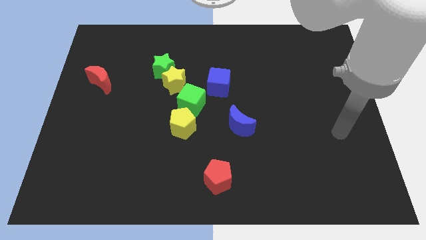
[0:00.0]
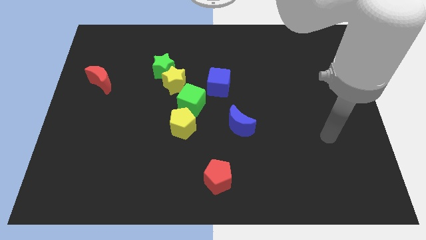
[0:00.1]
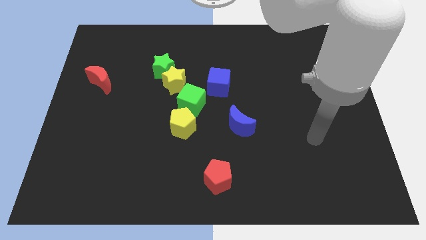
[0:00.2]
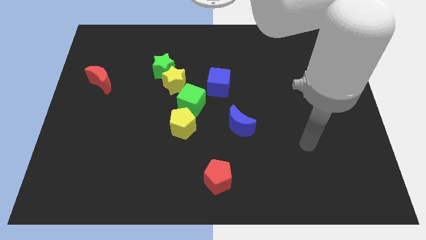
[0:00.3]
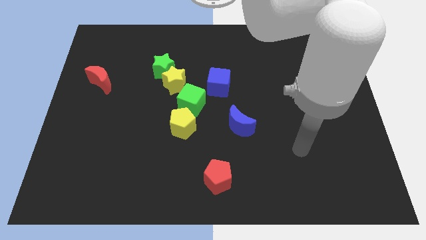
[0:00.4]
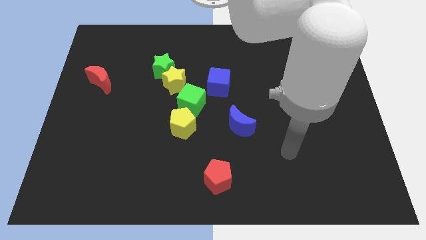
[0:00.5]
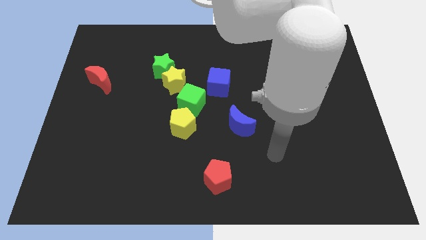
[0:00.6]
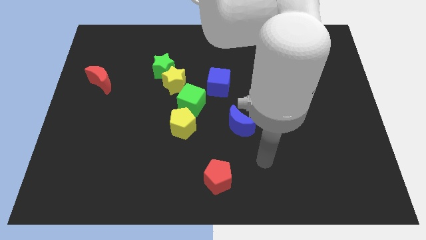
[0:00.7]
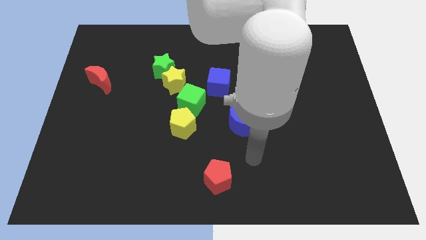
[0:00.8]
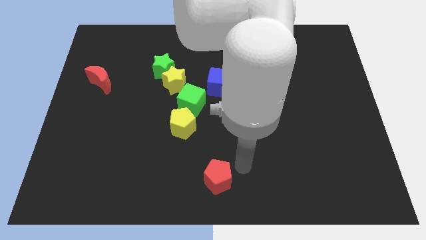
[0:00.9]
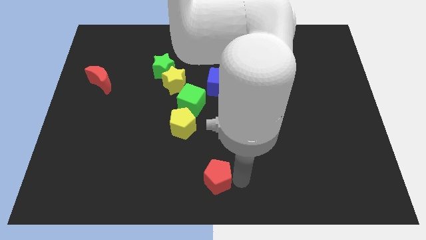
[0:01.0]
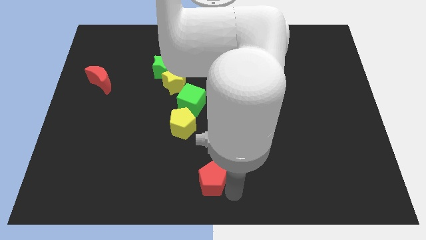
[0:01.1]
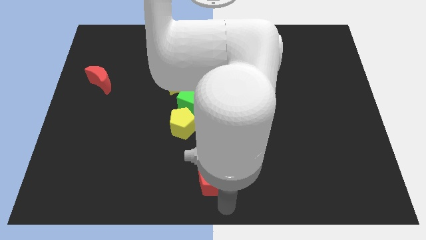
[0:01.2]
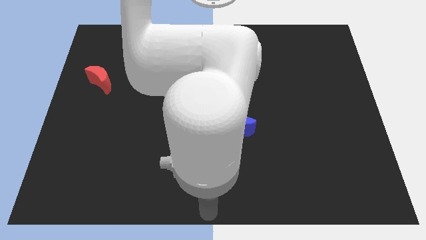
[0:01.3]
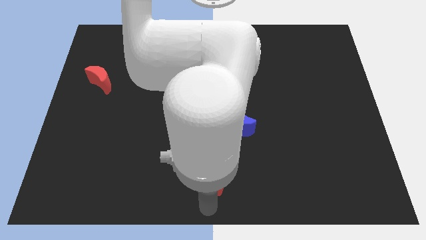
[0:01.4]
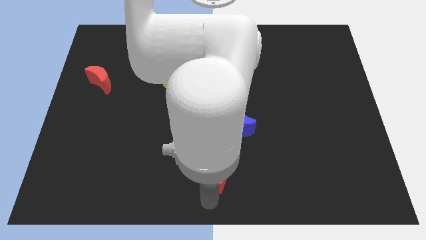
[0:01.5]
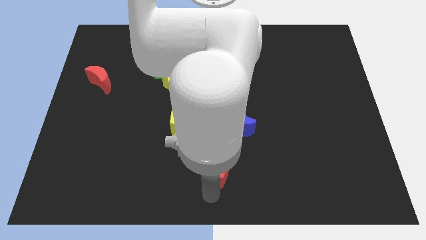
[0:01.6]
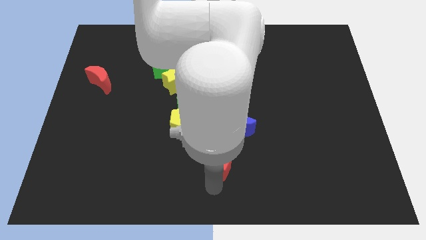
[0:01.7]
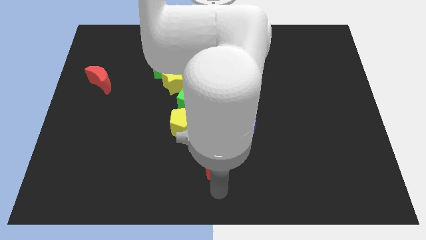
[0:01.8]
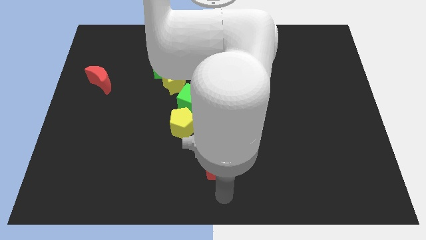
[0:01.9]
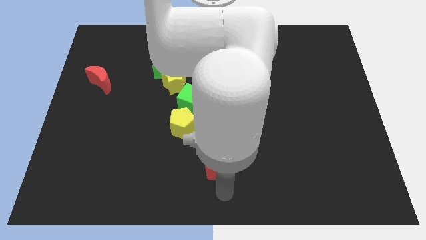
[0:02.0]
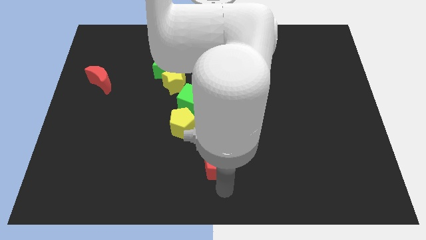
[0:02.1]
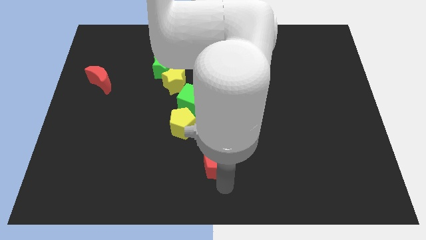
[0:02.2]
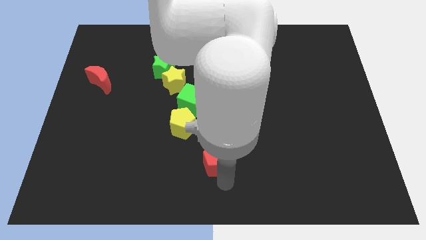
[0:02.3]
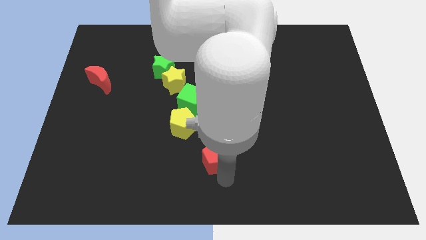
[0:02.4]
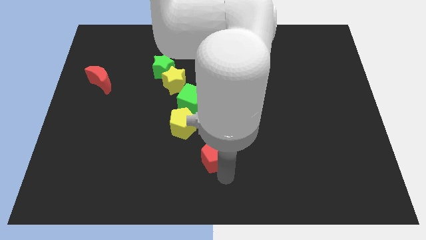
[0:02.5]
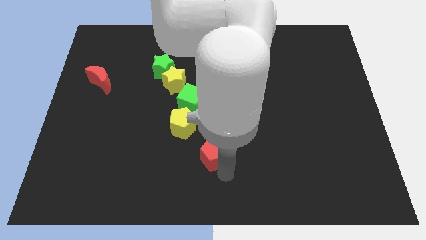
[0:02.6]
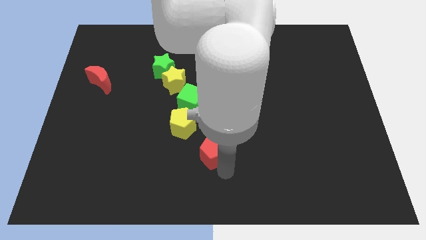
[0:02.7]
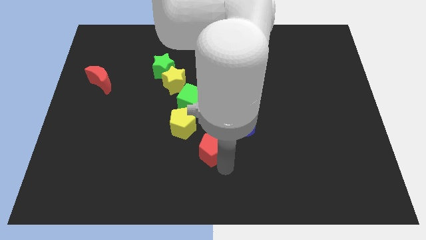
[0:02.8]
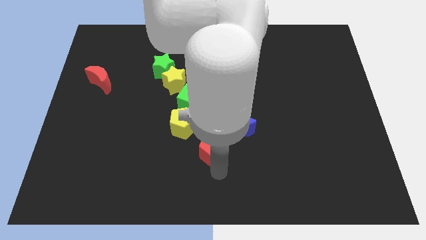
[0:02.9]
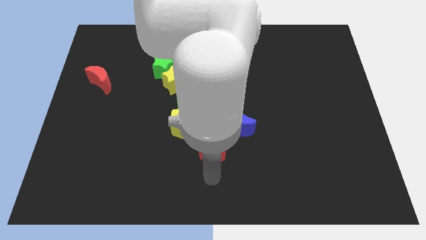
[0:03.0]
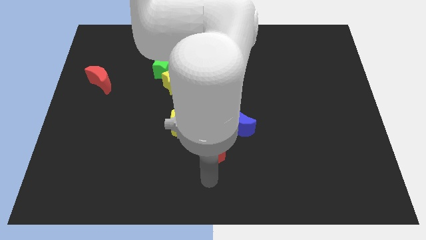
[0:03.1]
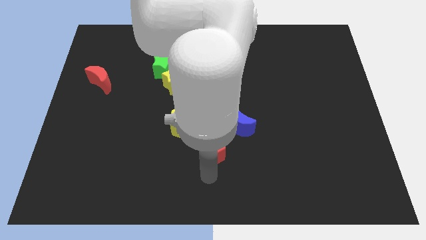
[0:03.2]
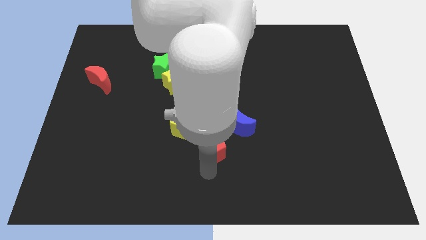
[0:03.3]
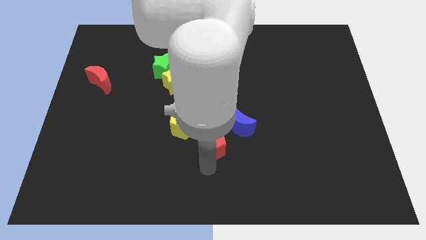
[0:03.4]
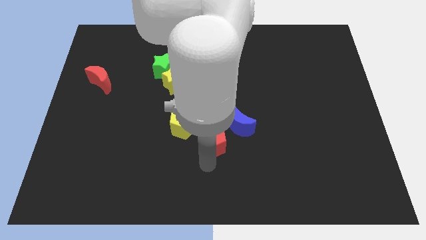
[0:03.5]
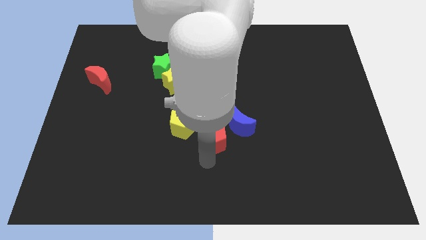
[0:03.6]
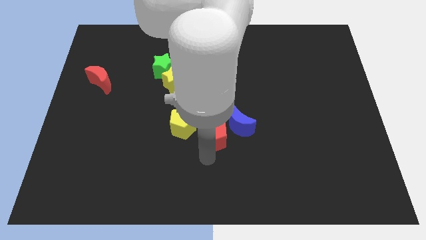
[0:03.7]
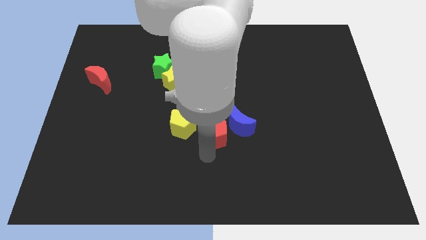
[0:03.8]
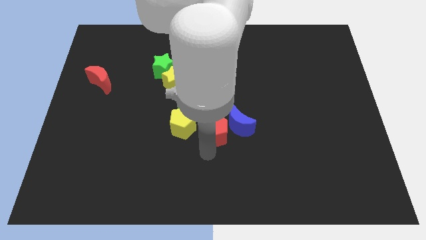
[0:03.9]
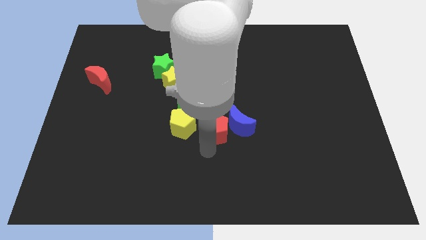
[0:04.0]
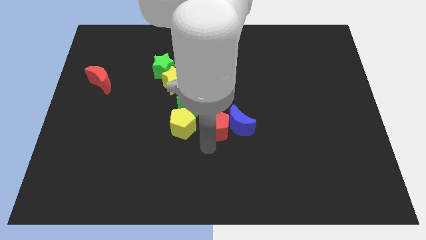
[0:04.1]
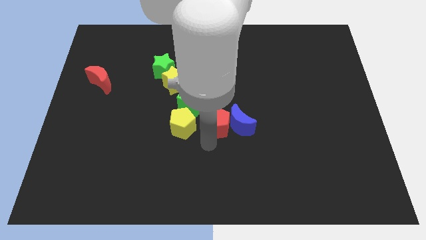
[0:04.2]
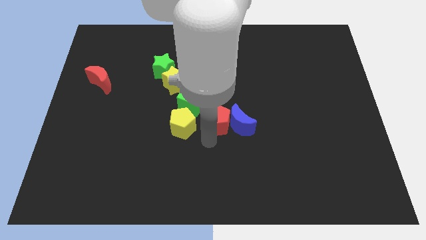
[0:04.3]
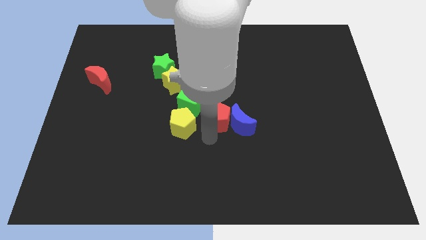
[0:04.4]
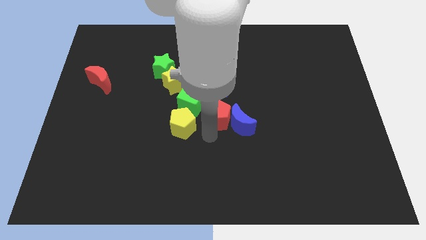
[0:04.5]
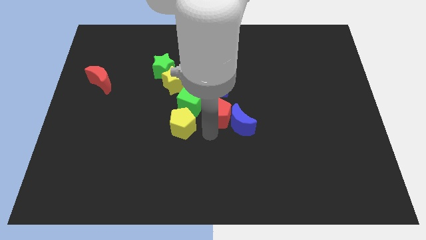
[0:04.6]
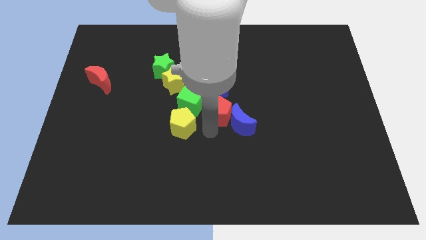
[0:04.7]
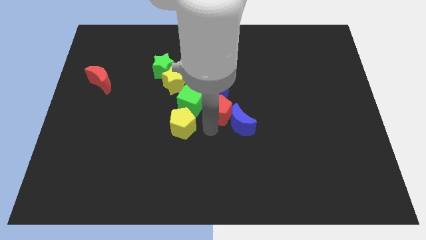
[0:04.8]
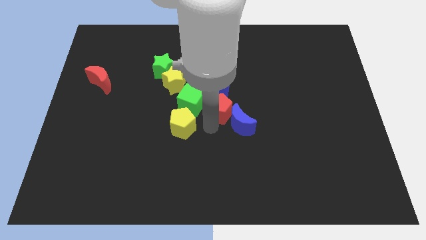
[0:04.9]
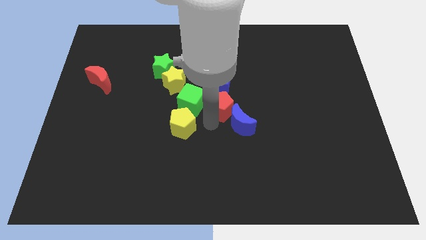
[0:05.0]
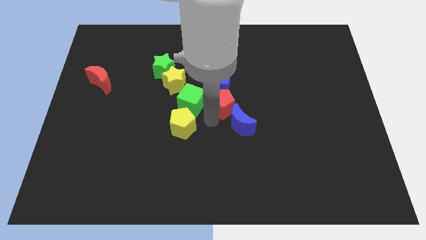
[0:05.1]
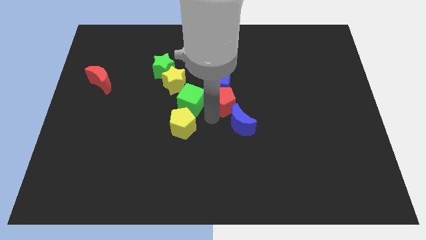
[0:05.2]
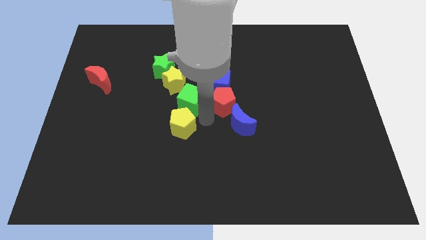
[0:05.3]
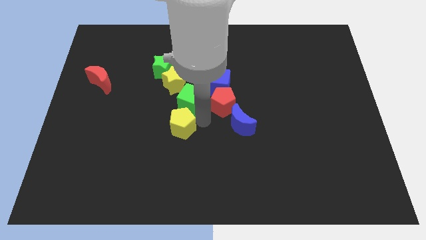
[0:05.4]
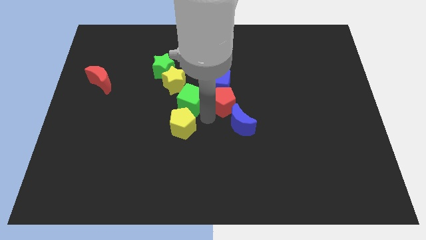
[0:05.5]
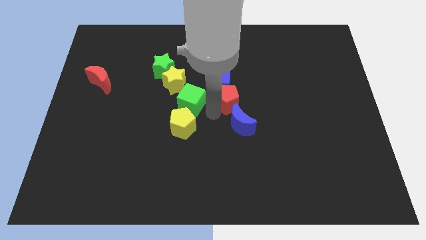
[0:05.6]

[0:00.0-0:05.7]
push the red pentagon up

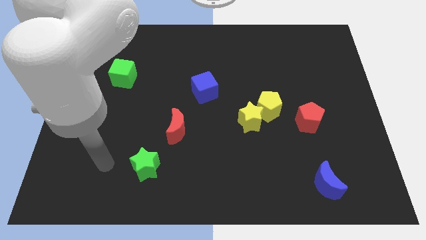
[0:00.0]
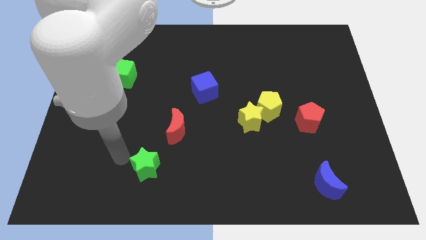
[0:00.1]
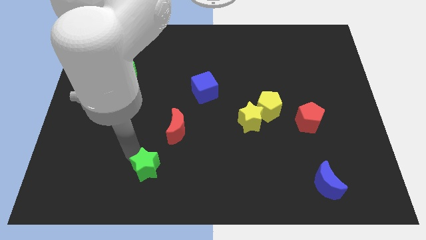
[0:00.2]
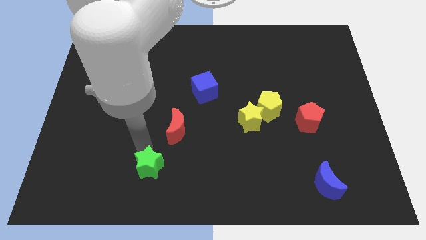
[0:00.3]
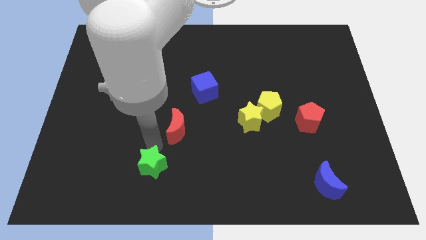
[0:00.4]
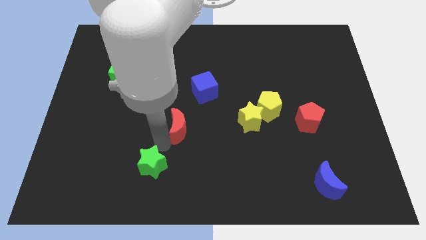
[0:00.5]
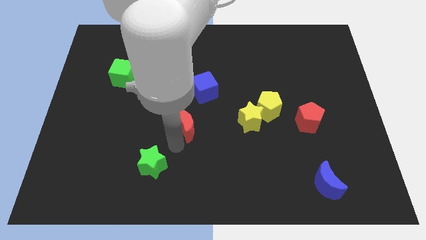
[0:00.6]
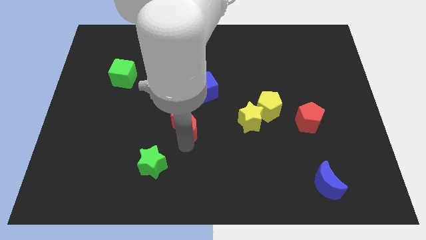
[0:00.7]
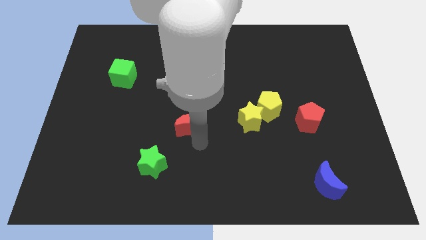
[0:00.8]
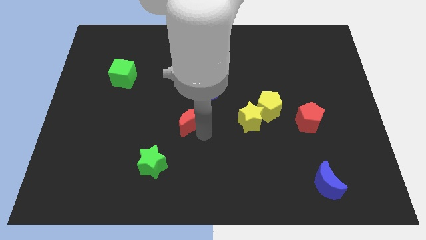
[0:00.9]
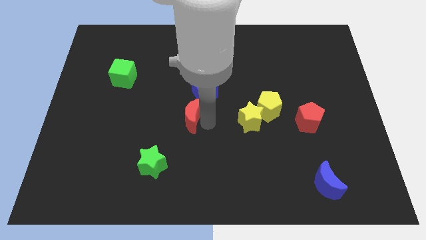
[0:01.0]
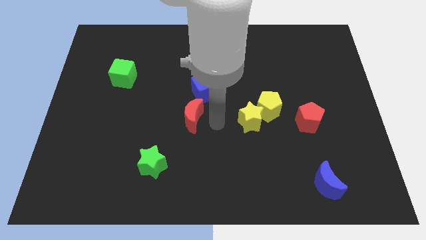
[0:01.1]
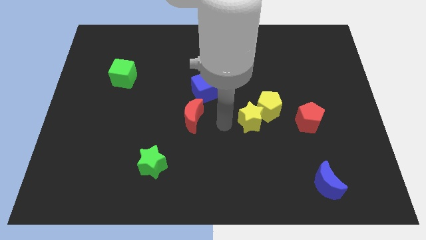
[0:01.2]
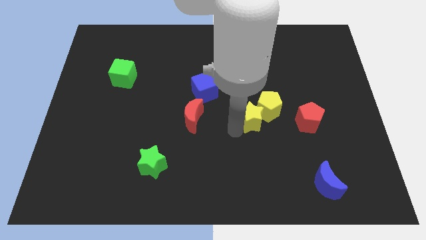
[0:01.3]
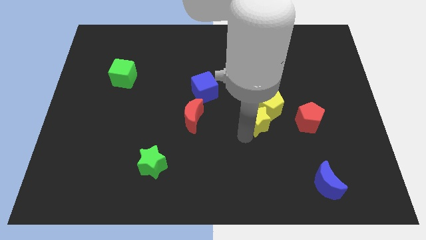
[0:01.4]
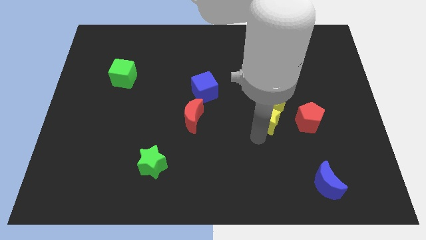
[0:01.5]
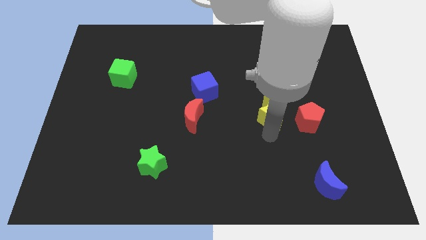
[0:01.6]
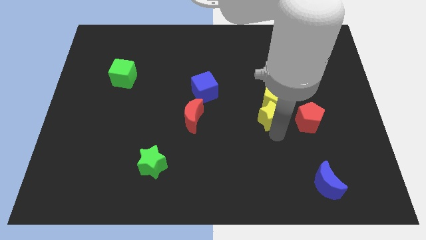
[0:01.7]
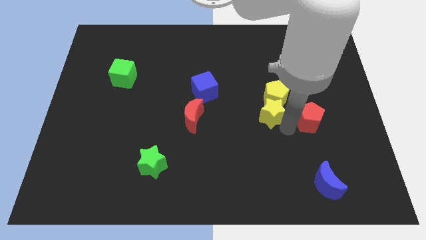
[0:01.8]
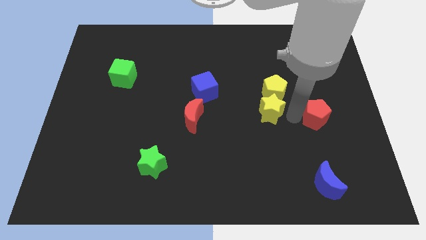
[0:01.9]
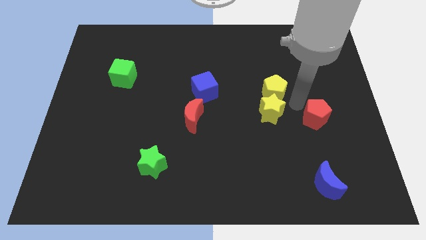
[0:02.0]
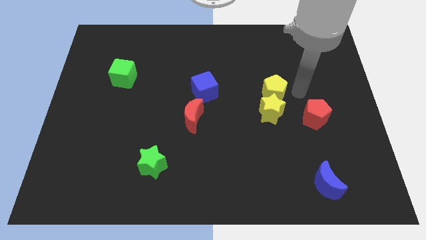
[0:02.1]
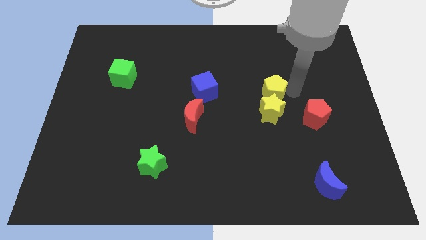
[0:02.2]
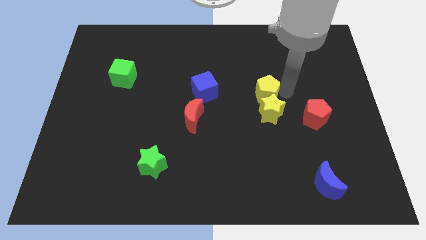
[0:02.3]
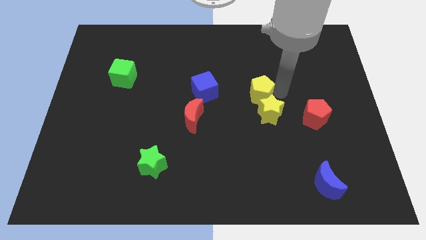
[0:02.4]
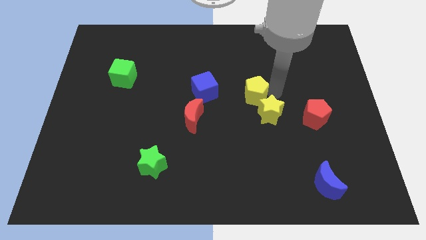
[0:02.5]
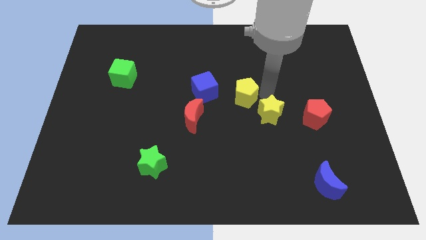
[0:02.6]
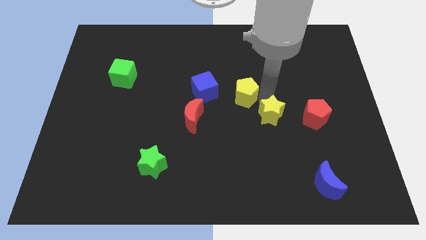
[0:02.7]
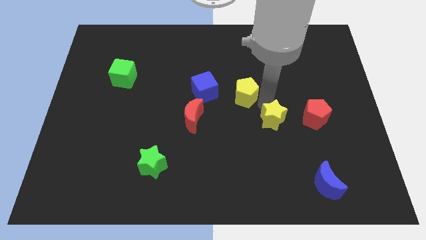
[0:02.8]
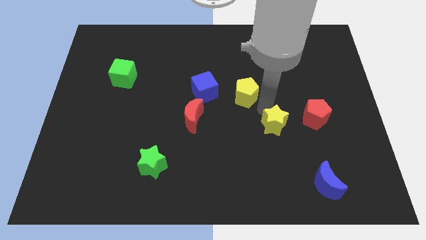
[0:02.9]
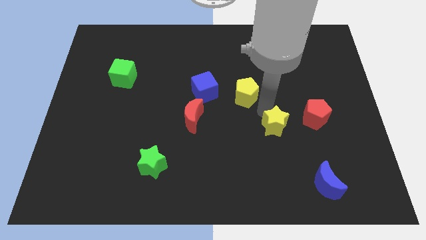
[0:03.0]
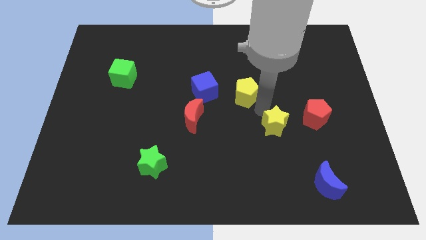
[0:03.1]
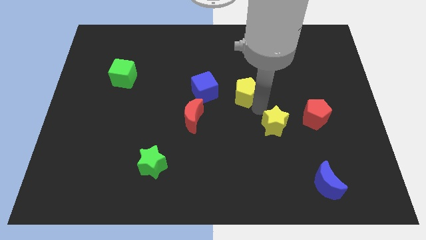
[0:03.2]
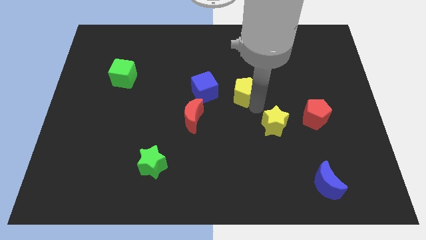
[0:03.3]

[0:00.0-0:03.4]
push the yellow pentagon up and left diagonally slightly
